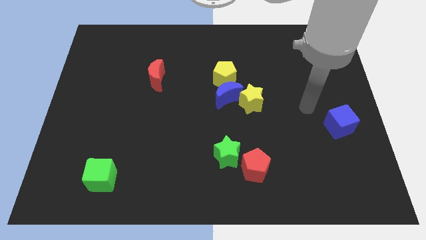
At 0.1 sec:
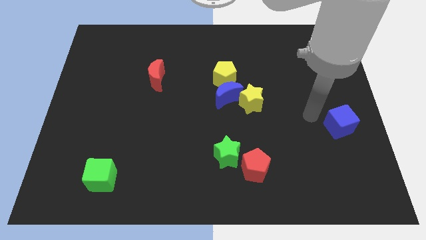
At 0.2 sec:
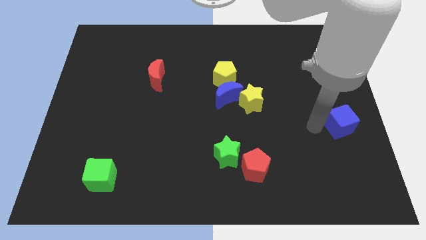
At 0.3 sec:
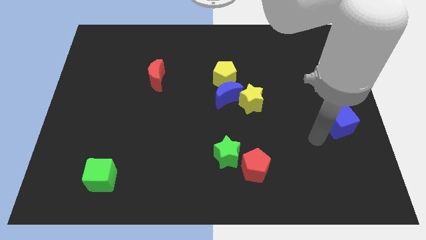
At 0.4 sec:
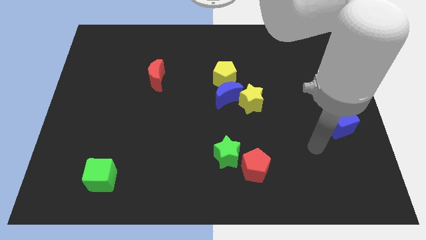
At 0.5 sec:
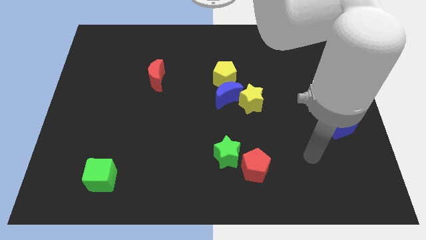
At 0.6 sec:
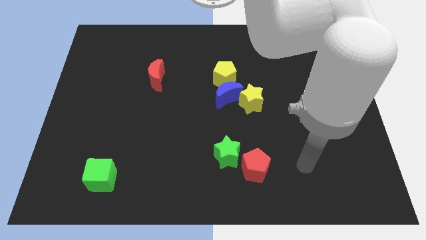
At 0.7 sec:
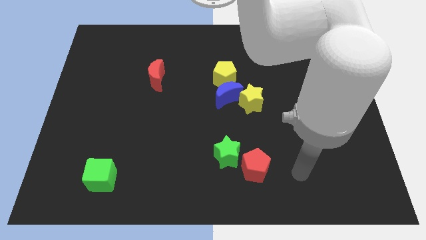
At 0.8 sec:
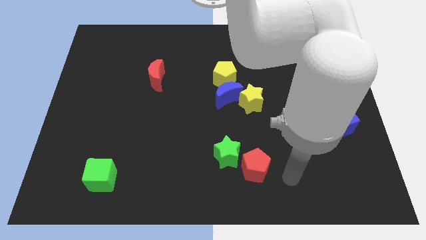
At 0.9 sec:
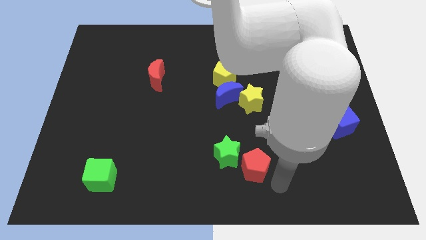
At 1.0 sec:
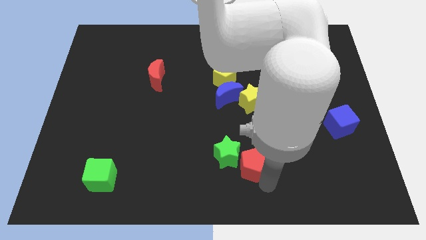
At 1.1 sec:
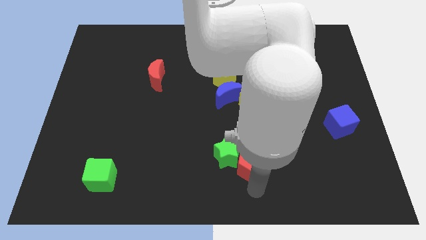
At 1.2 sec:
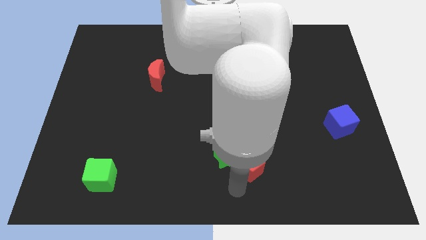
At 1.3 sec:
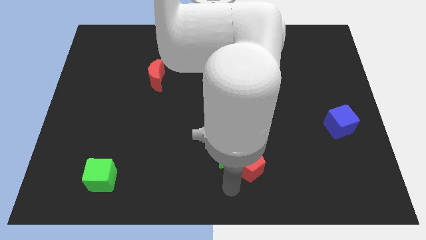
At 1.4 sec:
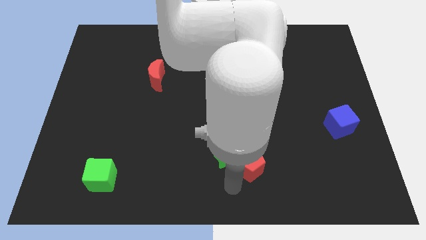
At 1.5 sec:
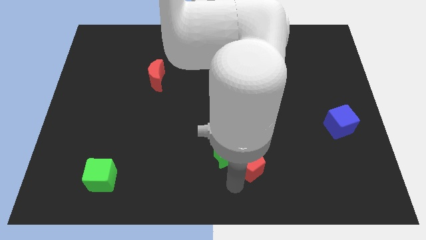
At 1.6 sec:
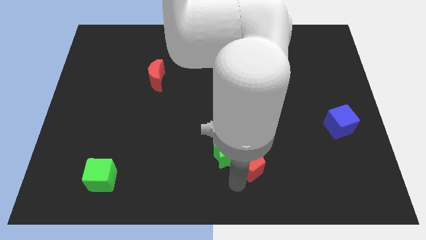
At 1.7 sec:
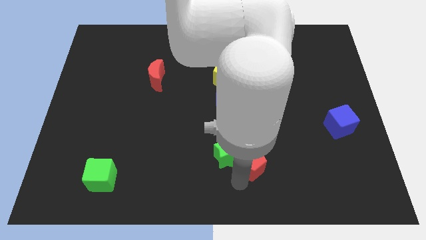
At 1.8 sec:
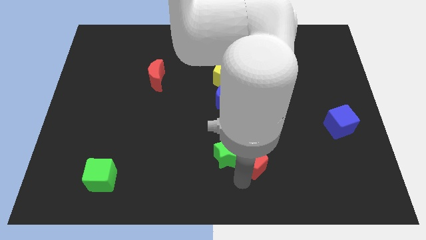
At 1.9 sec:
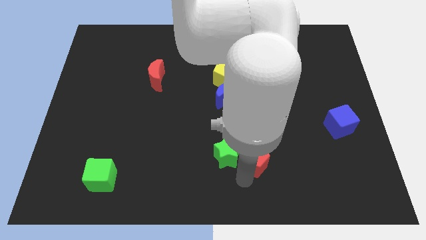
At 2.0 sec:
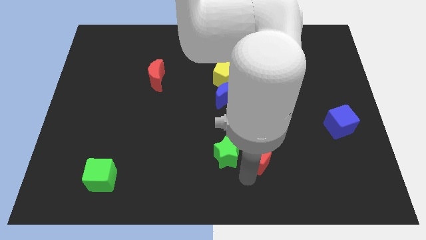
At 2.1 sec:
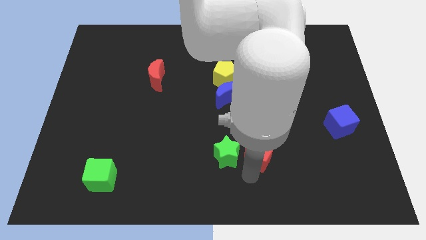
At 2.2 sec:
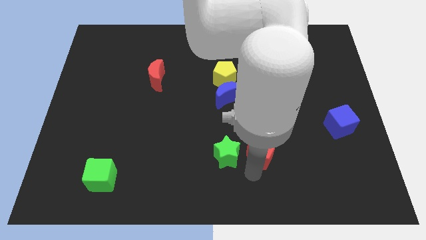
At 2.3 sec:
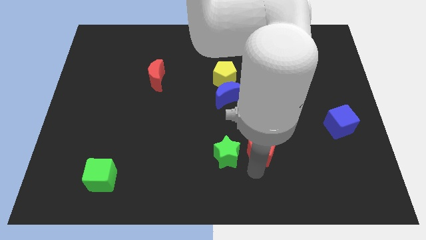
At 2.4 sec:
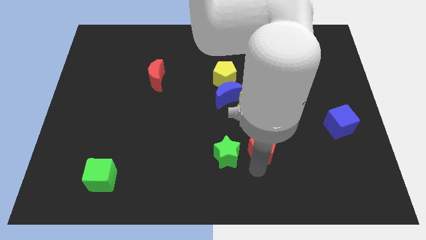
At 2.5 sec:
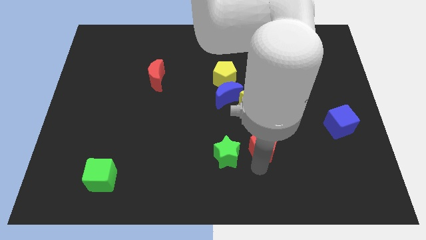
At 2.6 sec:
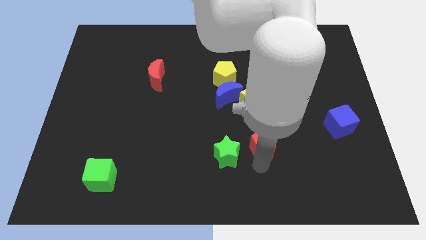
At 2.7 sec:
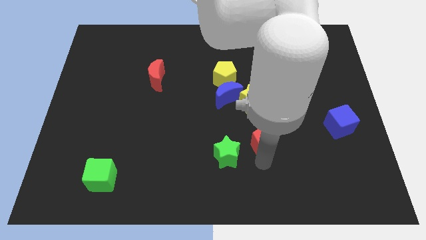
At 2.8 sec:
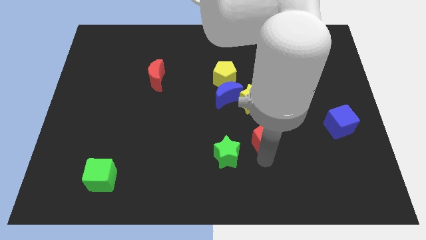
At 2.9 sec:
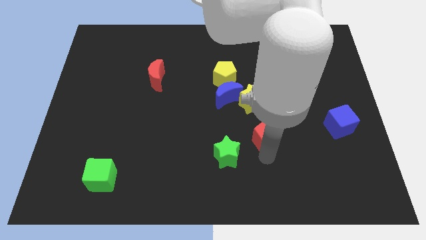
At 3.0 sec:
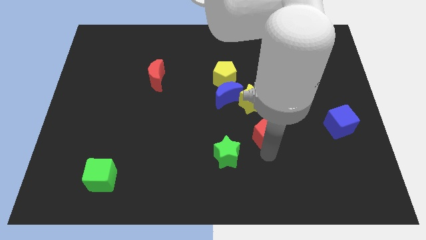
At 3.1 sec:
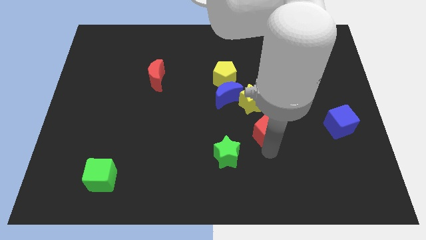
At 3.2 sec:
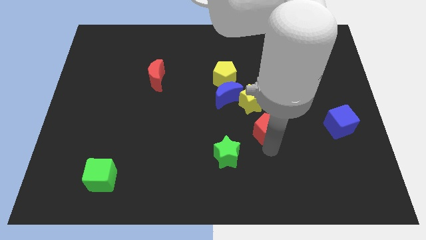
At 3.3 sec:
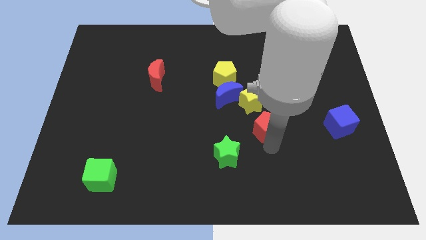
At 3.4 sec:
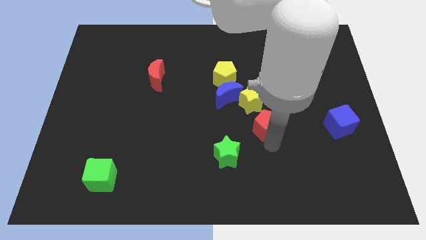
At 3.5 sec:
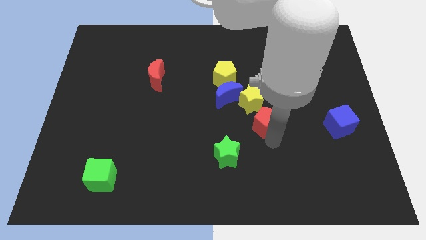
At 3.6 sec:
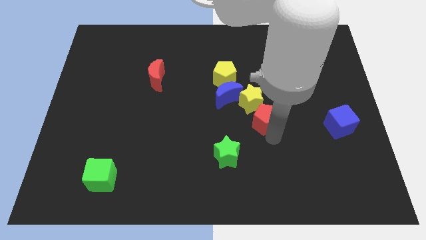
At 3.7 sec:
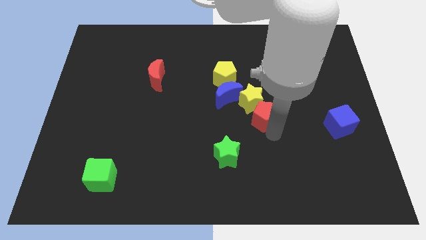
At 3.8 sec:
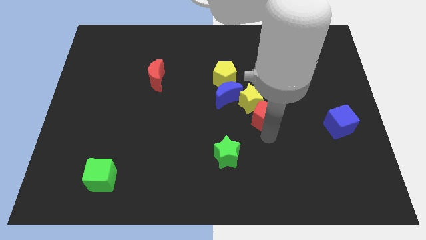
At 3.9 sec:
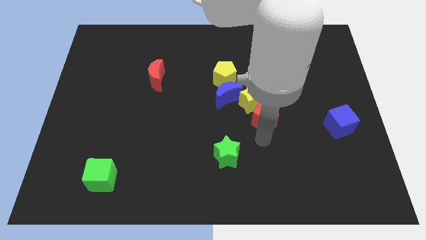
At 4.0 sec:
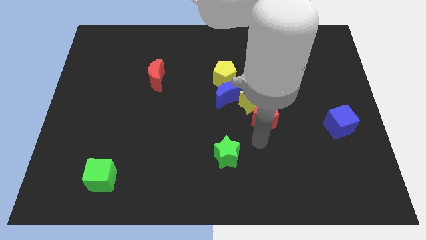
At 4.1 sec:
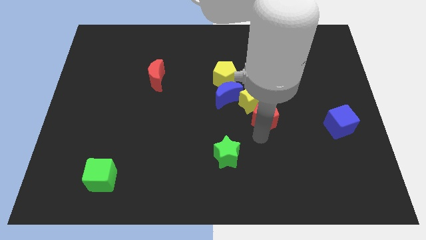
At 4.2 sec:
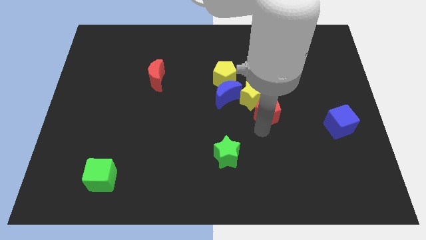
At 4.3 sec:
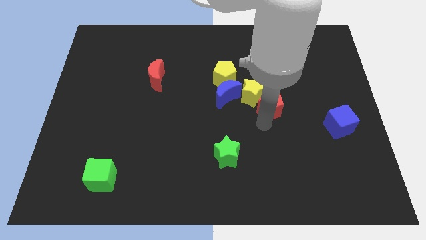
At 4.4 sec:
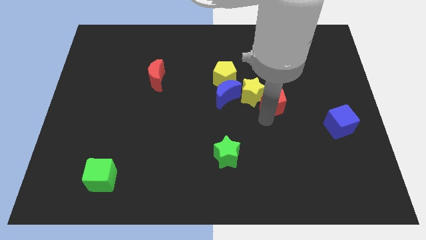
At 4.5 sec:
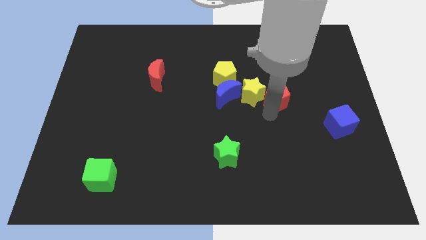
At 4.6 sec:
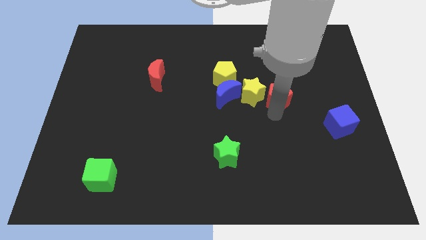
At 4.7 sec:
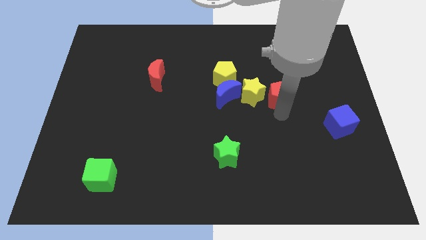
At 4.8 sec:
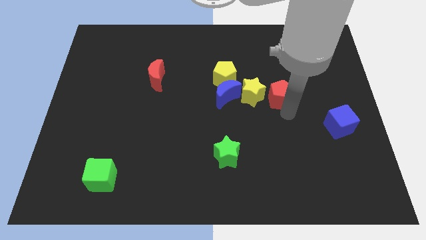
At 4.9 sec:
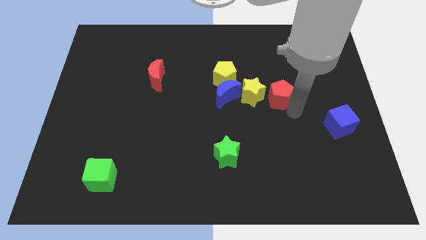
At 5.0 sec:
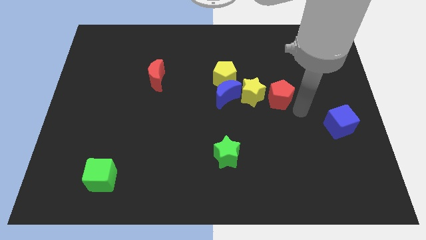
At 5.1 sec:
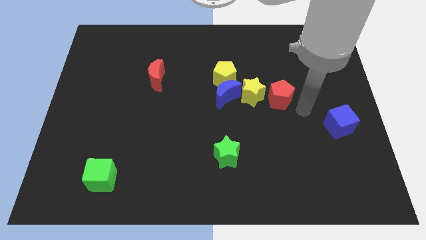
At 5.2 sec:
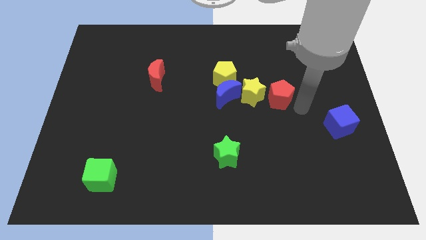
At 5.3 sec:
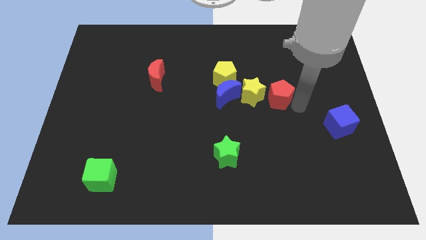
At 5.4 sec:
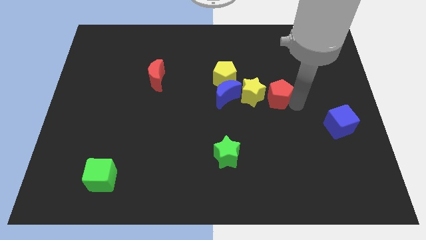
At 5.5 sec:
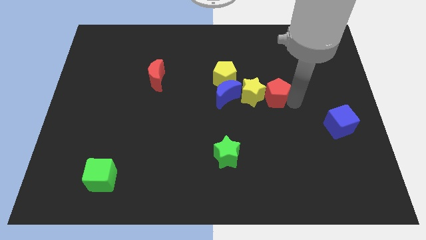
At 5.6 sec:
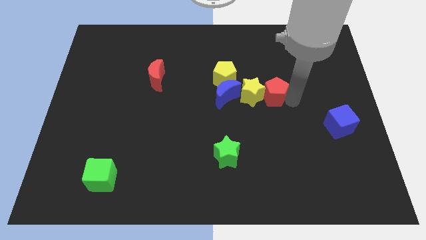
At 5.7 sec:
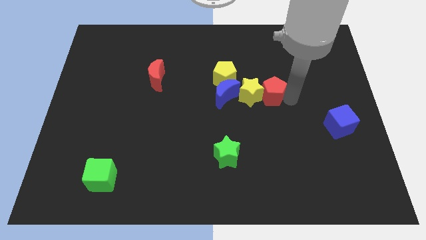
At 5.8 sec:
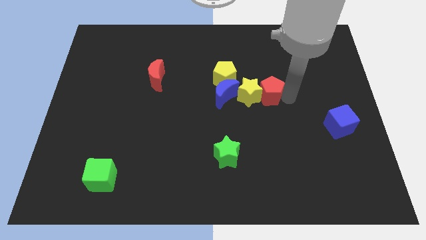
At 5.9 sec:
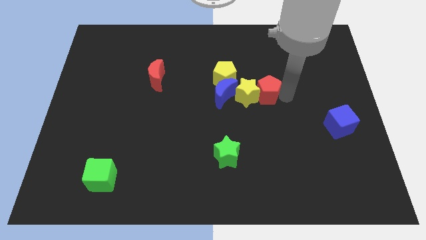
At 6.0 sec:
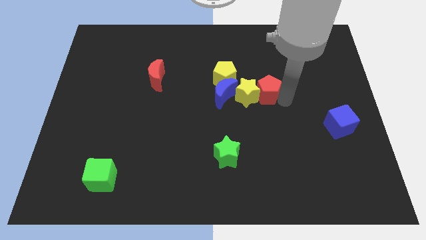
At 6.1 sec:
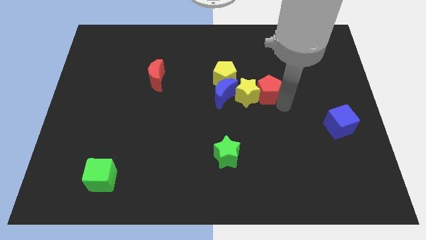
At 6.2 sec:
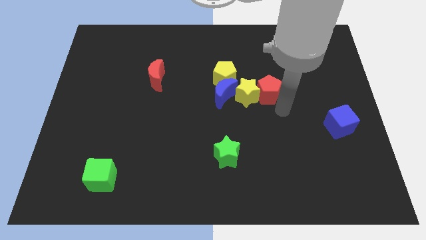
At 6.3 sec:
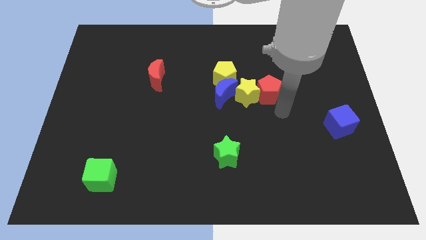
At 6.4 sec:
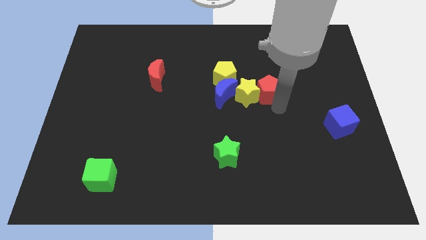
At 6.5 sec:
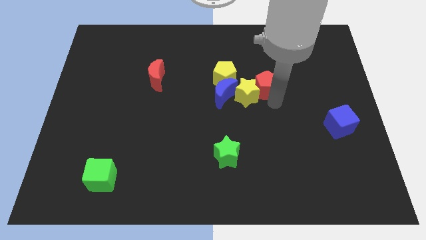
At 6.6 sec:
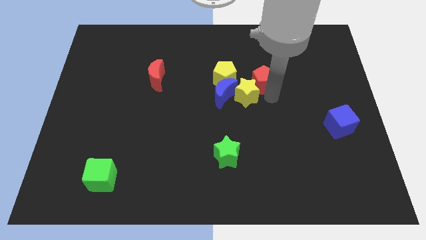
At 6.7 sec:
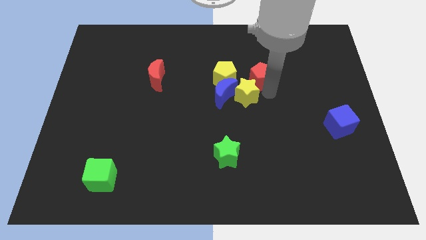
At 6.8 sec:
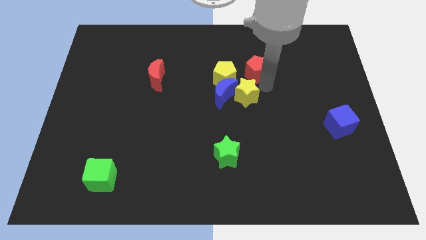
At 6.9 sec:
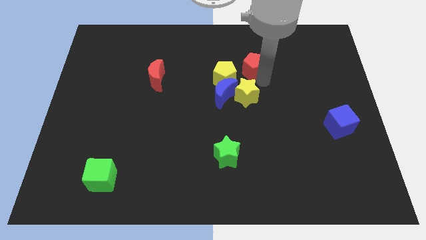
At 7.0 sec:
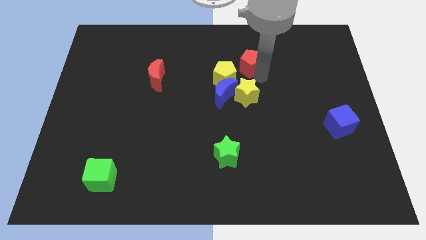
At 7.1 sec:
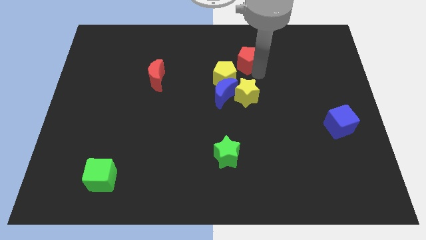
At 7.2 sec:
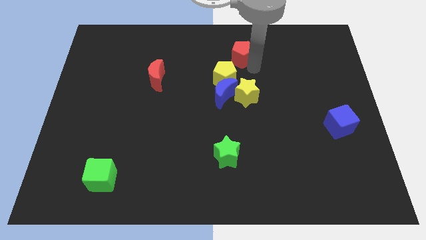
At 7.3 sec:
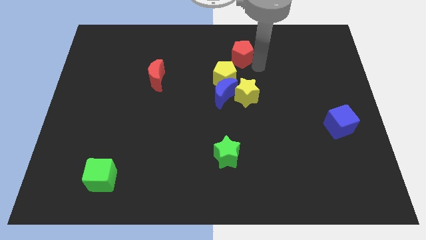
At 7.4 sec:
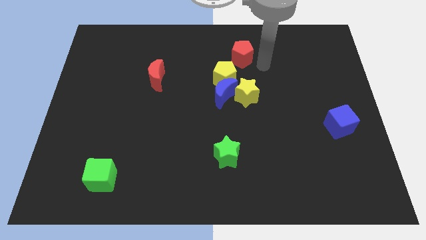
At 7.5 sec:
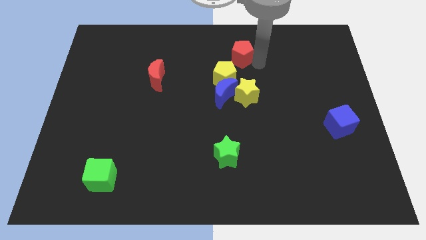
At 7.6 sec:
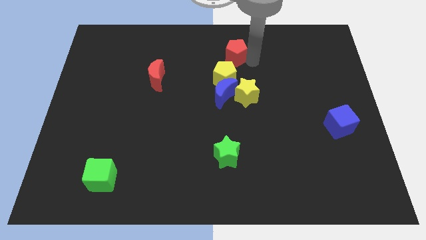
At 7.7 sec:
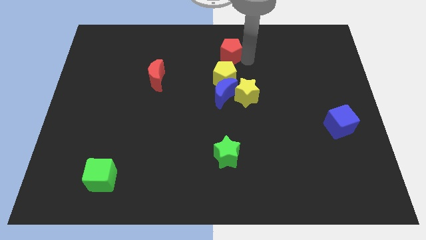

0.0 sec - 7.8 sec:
move the red pentagon to the towards your base
